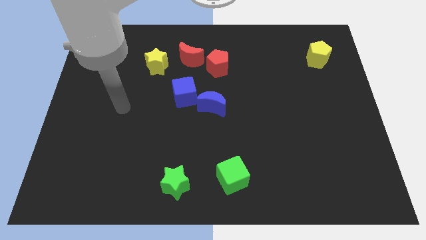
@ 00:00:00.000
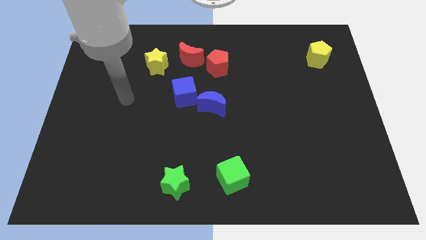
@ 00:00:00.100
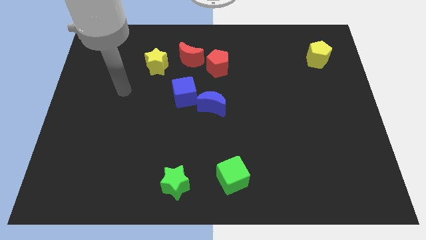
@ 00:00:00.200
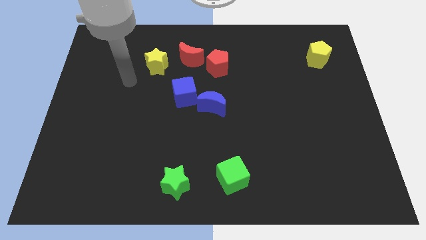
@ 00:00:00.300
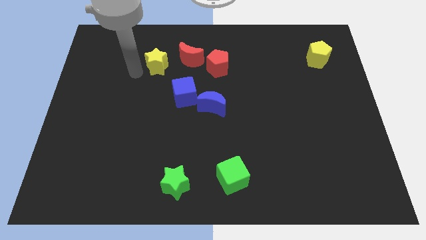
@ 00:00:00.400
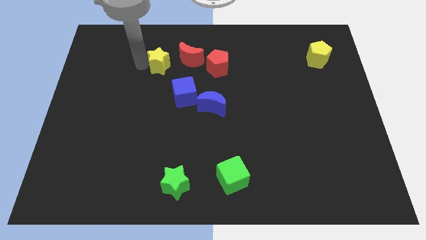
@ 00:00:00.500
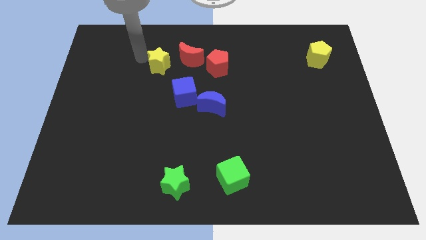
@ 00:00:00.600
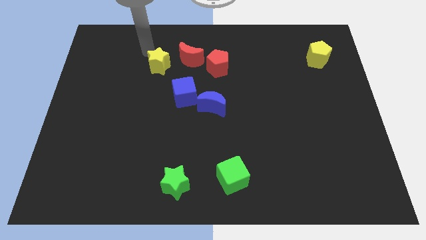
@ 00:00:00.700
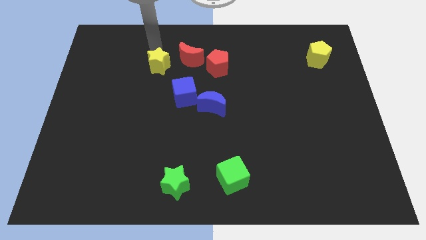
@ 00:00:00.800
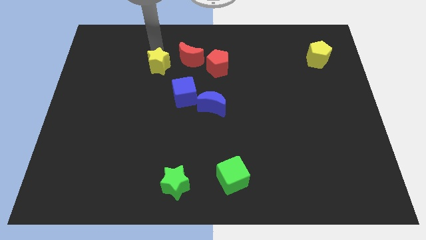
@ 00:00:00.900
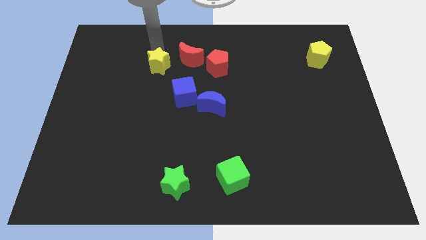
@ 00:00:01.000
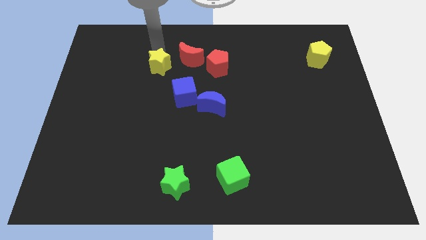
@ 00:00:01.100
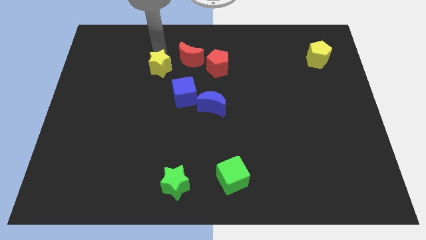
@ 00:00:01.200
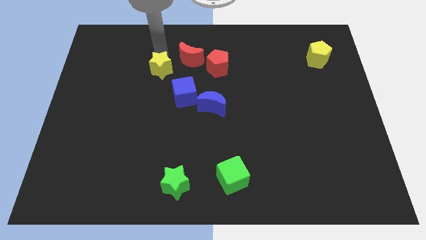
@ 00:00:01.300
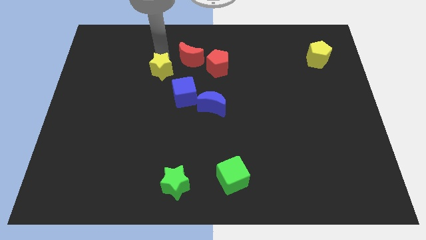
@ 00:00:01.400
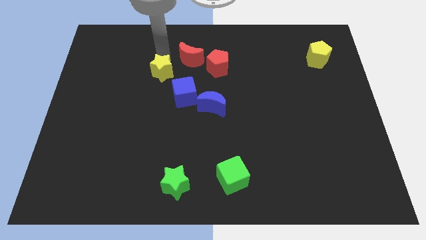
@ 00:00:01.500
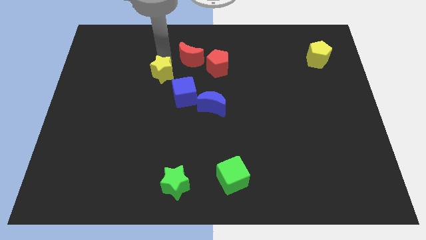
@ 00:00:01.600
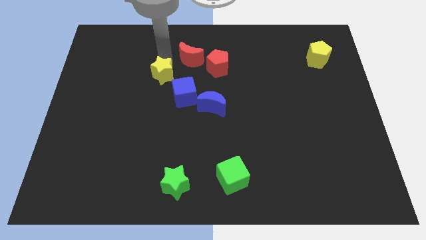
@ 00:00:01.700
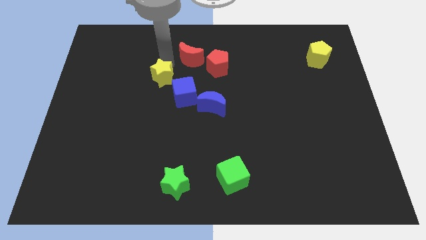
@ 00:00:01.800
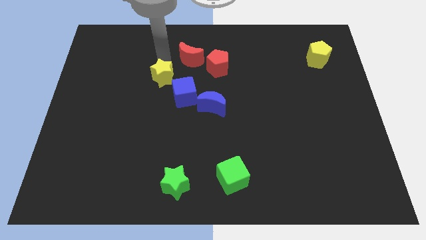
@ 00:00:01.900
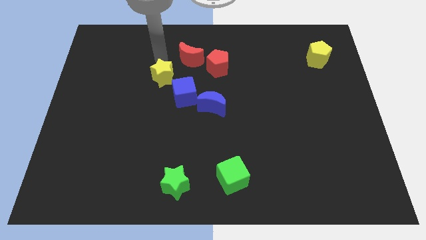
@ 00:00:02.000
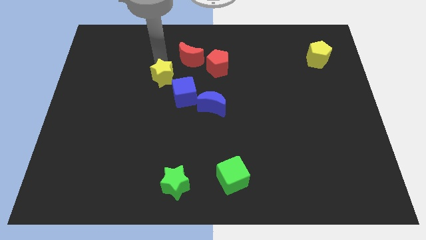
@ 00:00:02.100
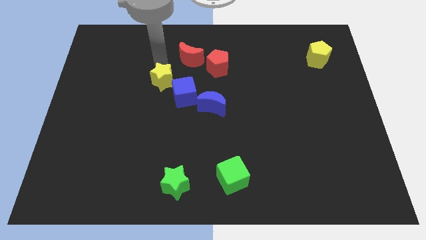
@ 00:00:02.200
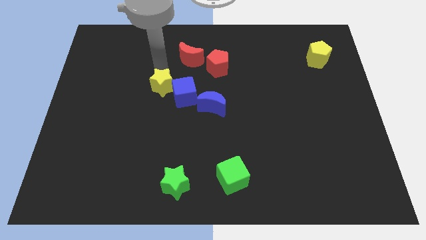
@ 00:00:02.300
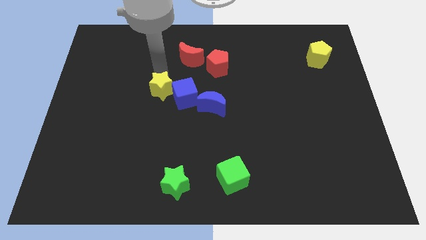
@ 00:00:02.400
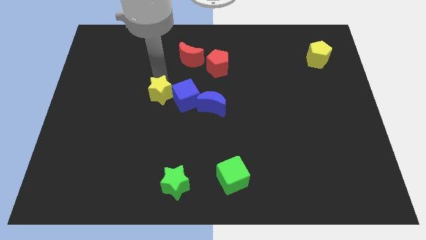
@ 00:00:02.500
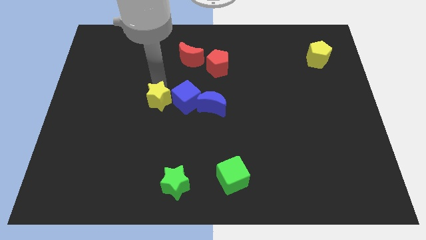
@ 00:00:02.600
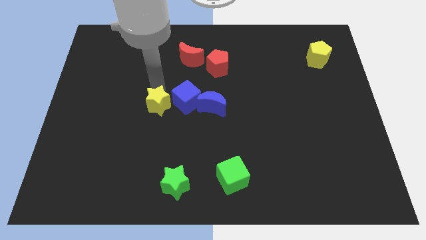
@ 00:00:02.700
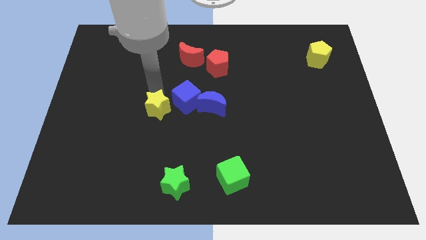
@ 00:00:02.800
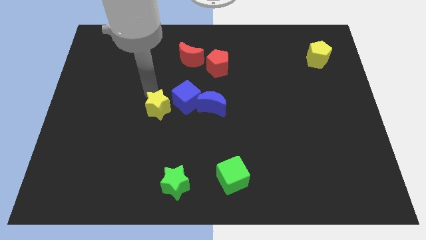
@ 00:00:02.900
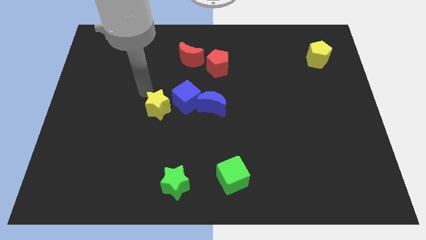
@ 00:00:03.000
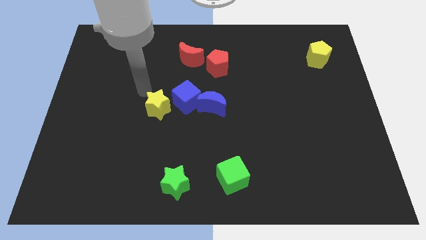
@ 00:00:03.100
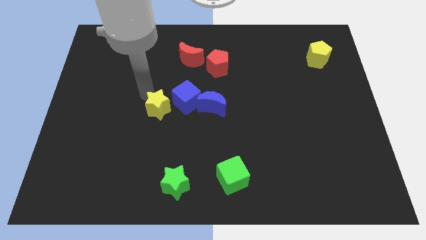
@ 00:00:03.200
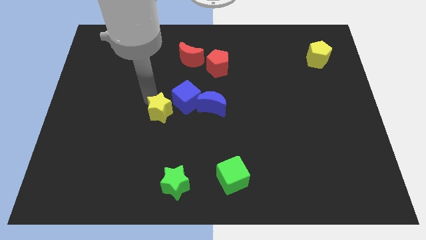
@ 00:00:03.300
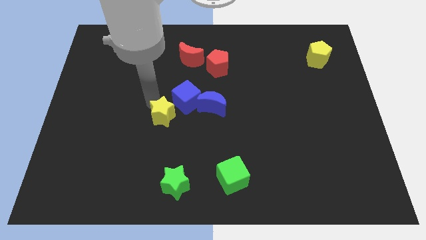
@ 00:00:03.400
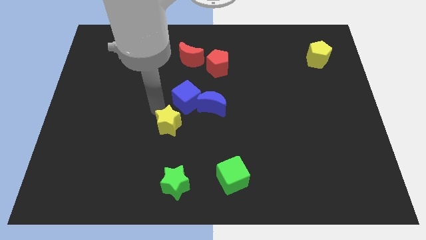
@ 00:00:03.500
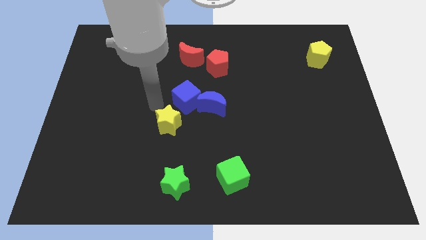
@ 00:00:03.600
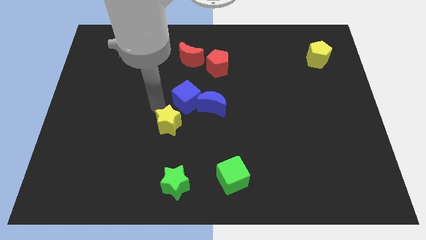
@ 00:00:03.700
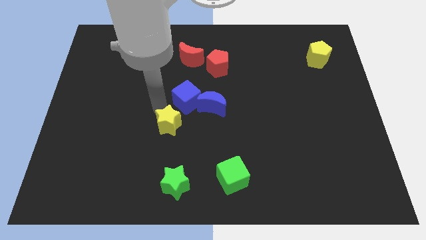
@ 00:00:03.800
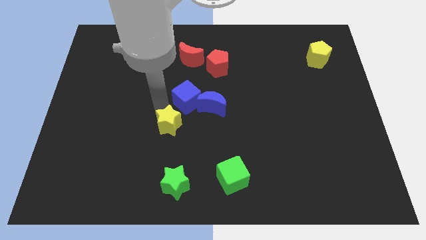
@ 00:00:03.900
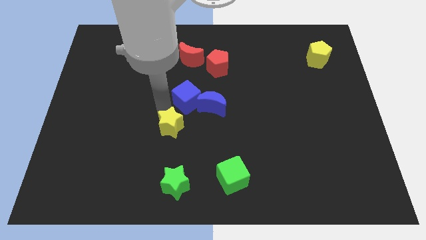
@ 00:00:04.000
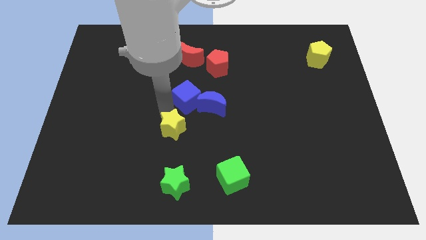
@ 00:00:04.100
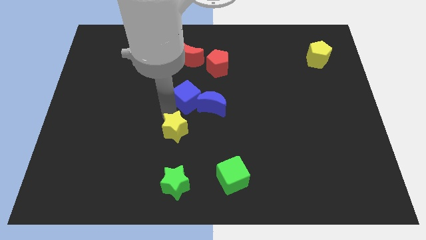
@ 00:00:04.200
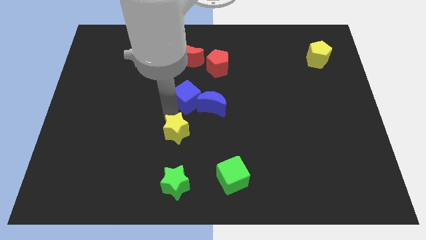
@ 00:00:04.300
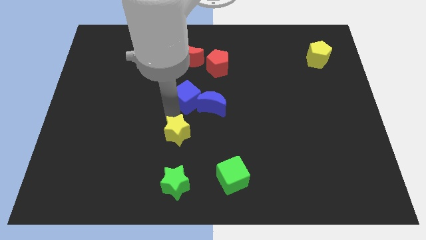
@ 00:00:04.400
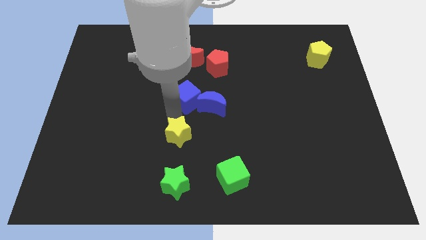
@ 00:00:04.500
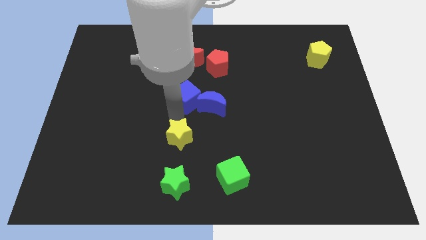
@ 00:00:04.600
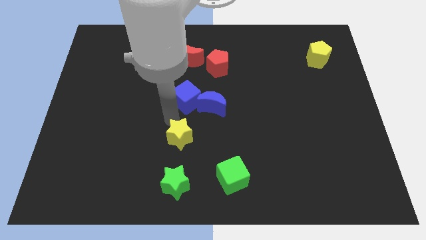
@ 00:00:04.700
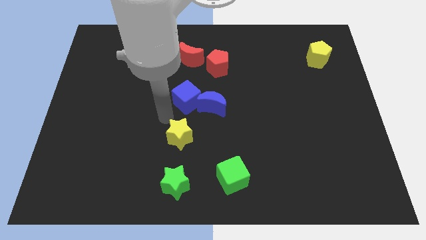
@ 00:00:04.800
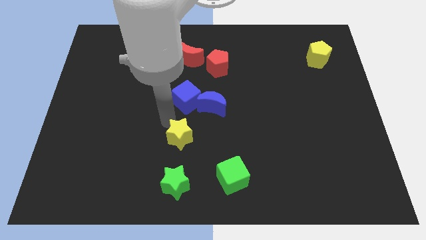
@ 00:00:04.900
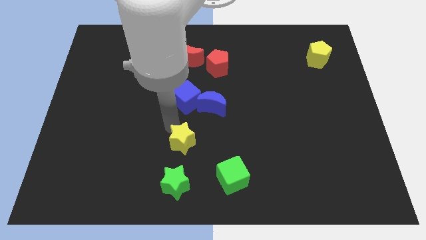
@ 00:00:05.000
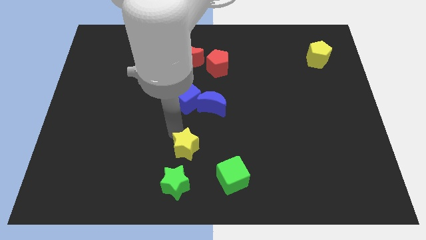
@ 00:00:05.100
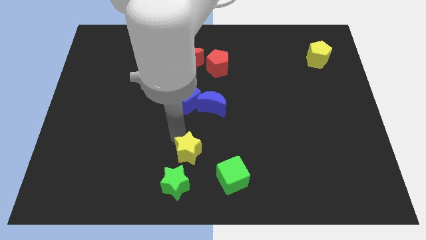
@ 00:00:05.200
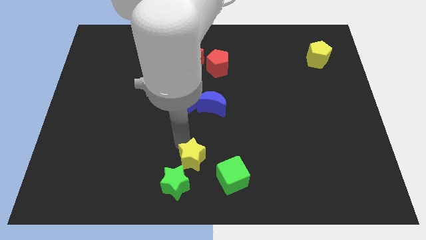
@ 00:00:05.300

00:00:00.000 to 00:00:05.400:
slide the yellow star to the bottom side
